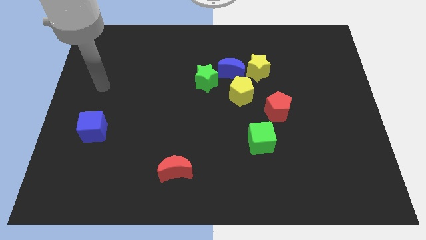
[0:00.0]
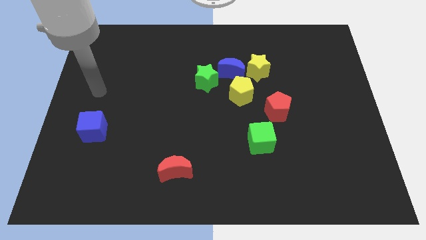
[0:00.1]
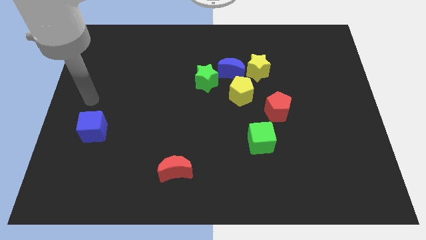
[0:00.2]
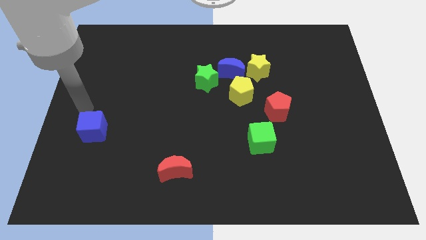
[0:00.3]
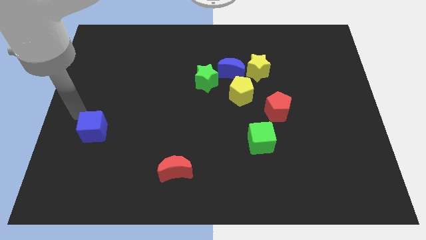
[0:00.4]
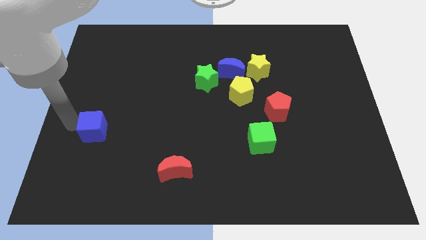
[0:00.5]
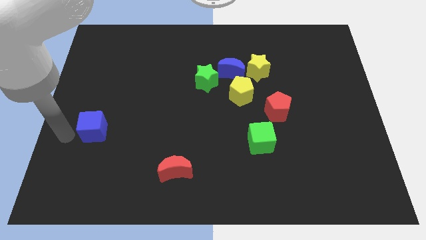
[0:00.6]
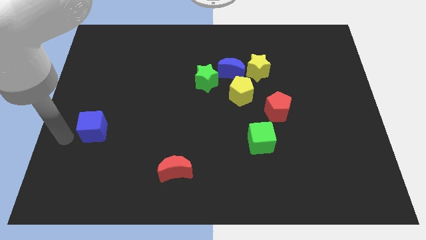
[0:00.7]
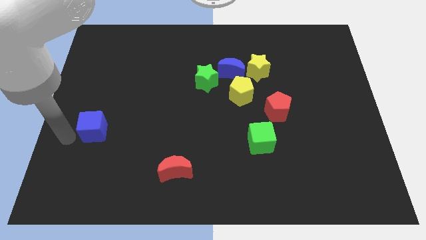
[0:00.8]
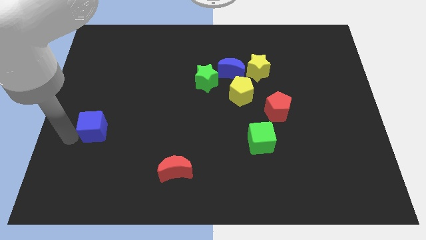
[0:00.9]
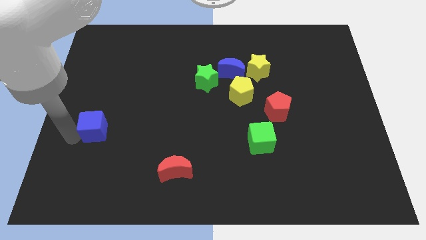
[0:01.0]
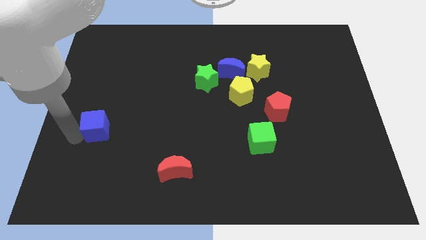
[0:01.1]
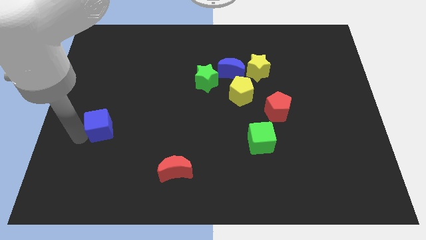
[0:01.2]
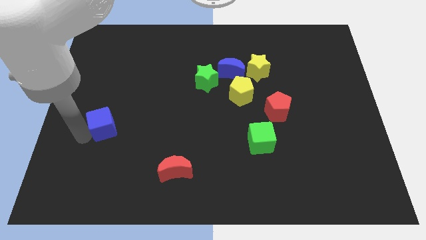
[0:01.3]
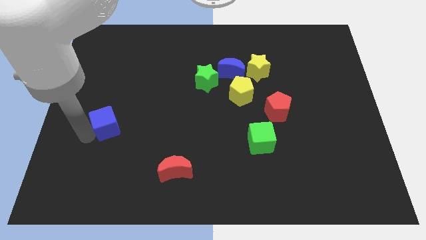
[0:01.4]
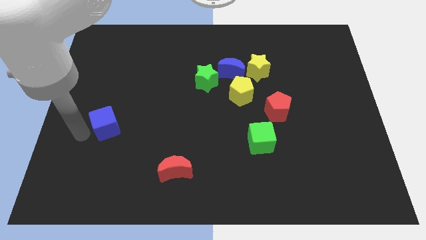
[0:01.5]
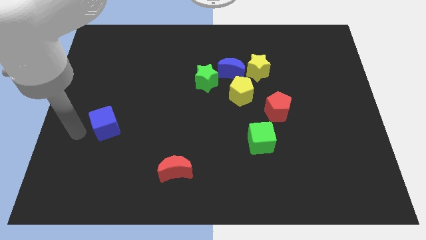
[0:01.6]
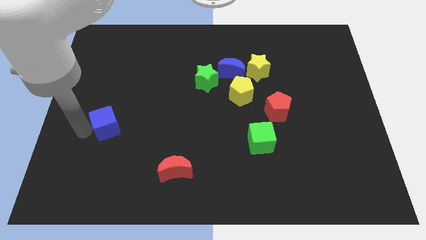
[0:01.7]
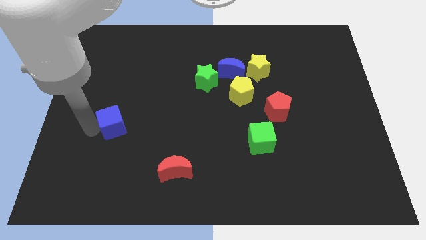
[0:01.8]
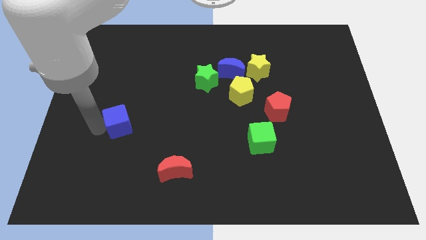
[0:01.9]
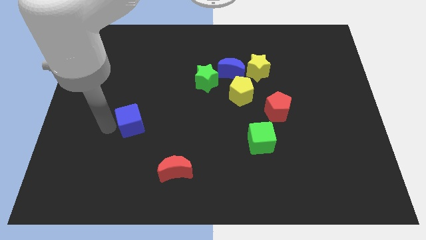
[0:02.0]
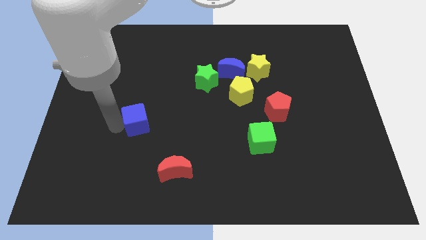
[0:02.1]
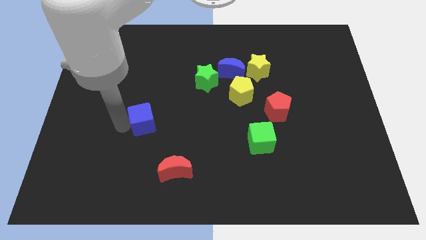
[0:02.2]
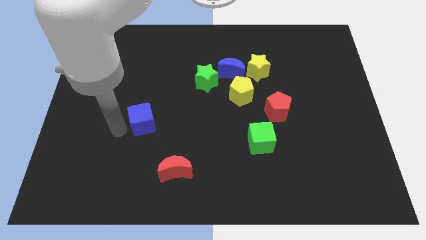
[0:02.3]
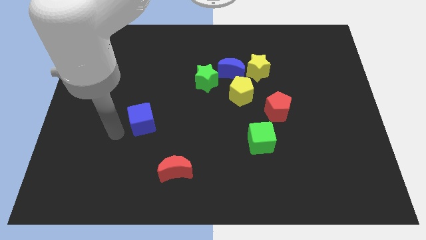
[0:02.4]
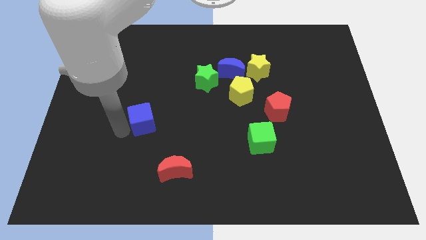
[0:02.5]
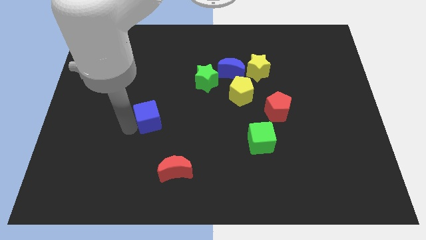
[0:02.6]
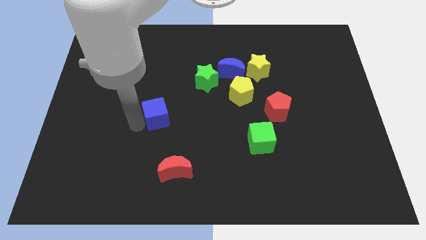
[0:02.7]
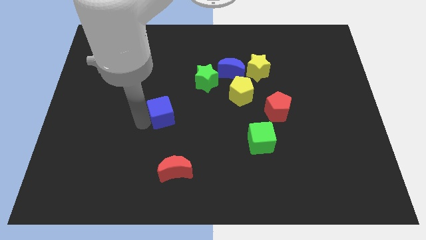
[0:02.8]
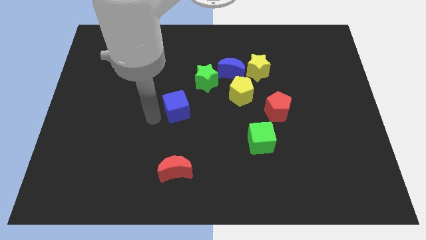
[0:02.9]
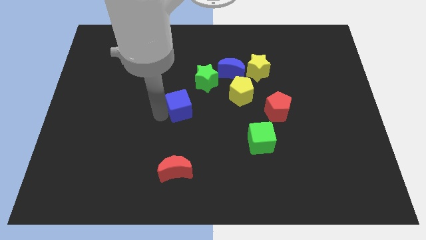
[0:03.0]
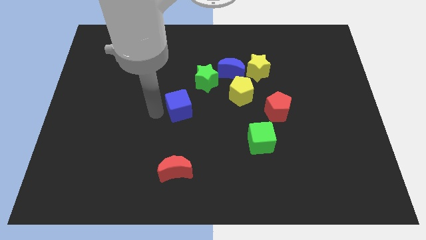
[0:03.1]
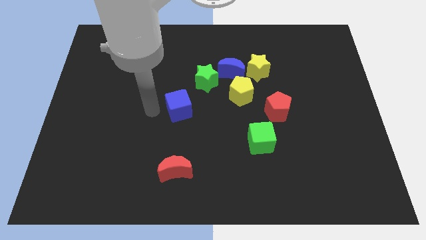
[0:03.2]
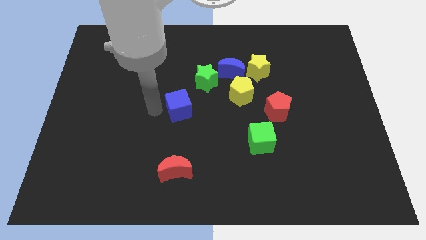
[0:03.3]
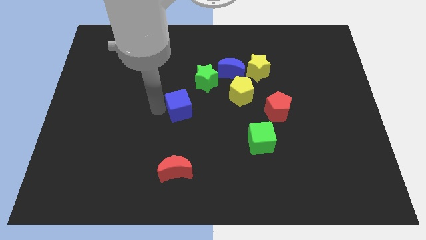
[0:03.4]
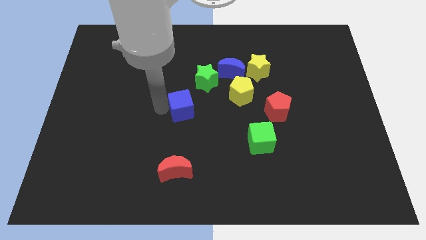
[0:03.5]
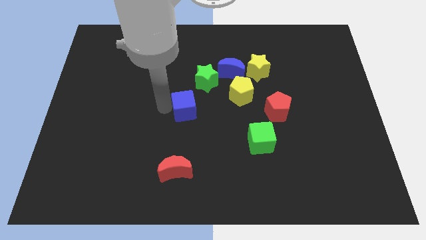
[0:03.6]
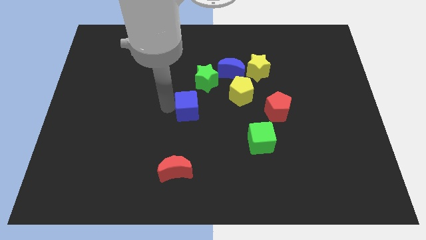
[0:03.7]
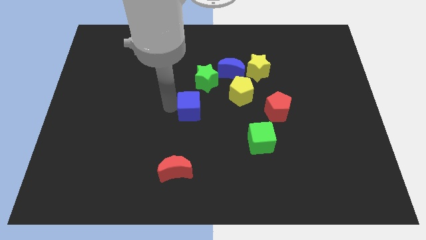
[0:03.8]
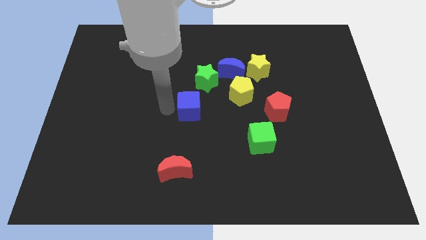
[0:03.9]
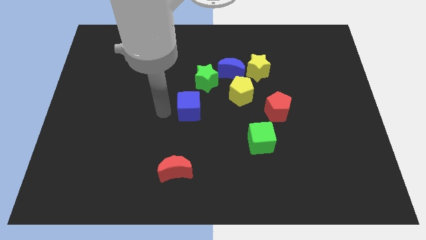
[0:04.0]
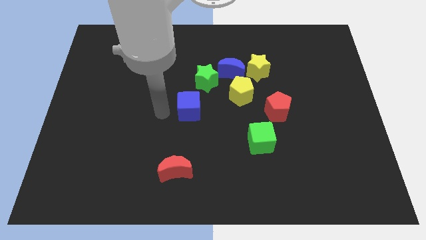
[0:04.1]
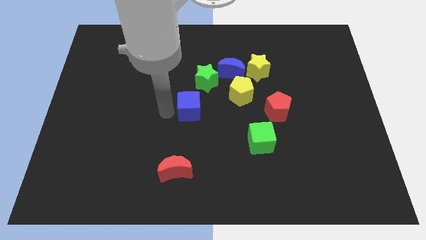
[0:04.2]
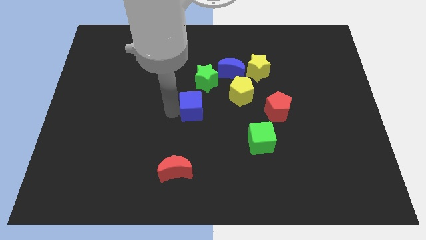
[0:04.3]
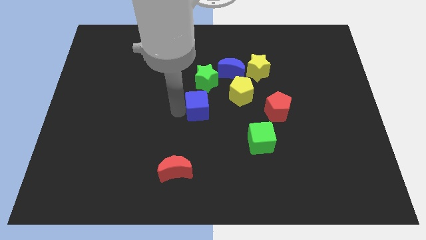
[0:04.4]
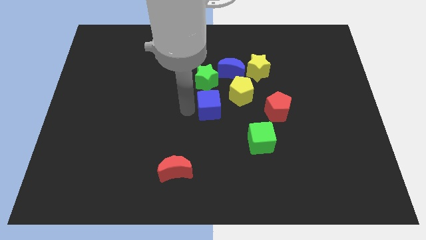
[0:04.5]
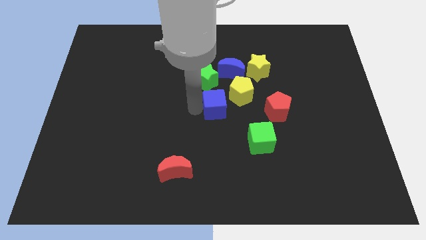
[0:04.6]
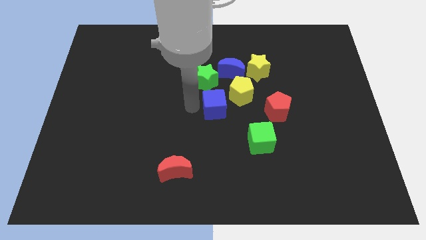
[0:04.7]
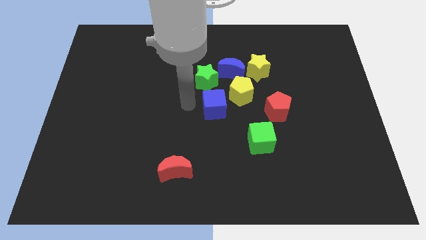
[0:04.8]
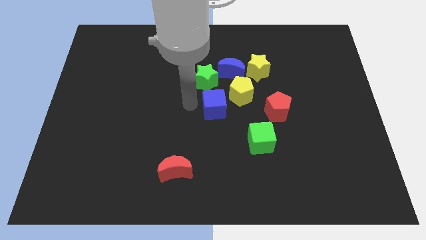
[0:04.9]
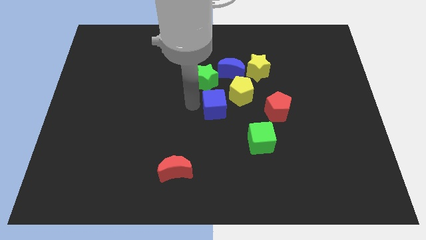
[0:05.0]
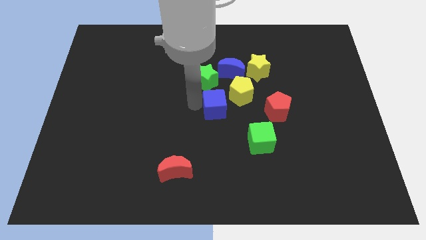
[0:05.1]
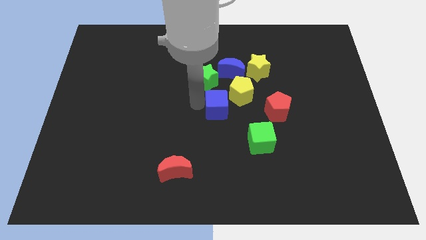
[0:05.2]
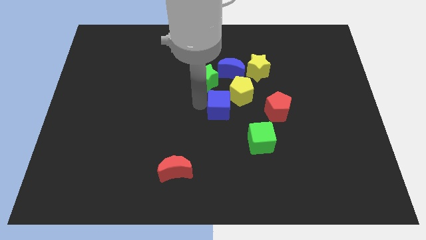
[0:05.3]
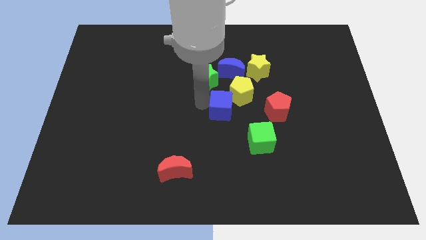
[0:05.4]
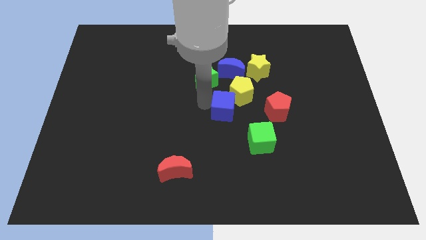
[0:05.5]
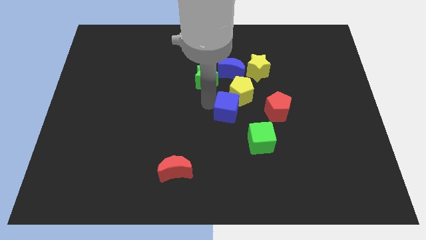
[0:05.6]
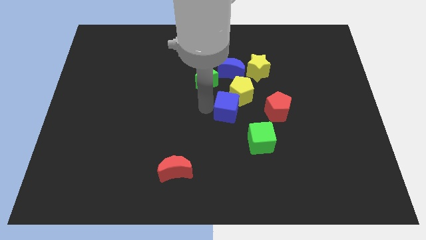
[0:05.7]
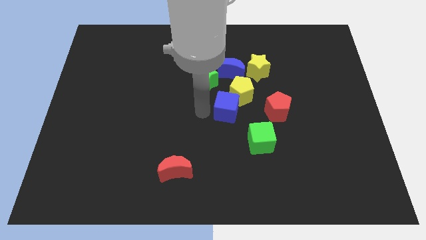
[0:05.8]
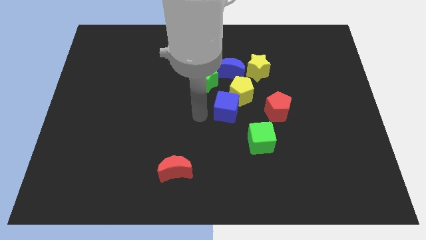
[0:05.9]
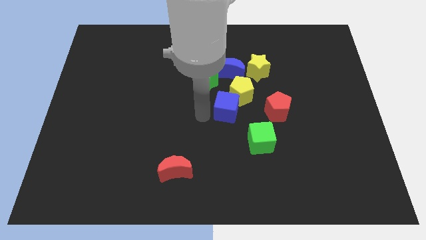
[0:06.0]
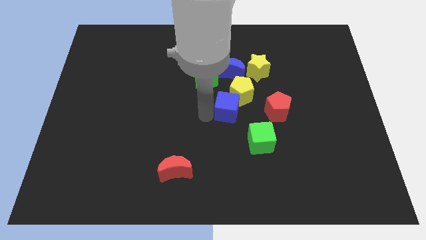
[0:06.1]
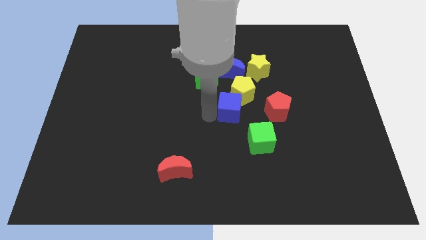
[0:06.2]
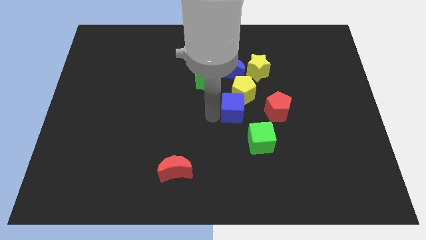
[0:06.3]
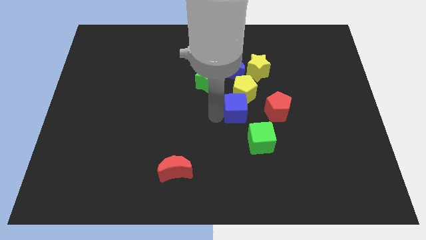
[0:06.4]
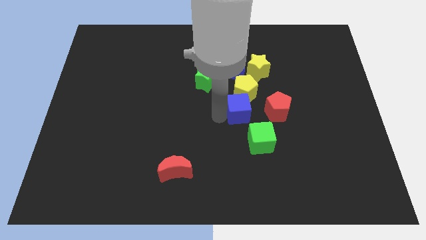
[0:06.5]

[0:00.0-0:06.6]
put the blue cube to the top of the green cube
